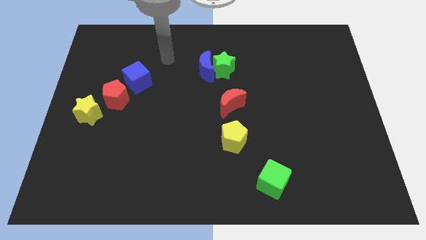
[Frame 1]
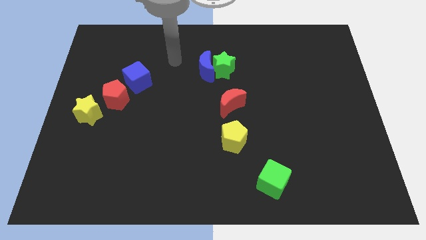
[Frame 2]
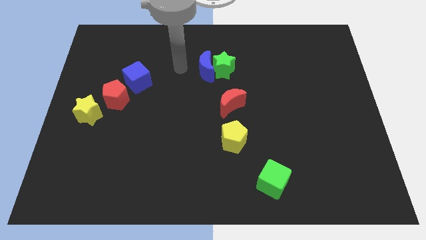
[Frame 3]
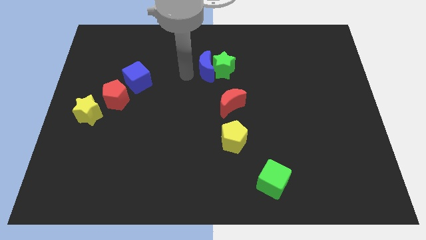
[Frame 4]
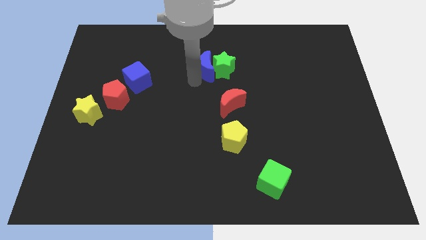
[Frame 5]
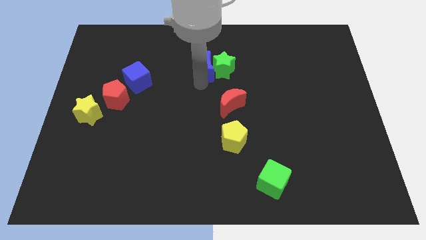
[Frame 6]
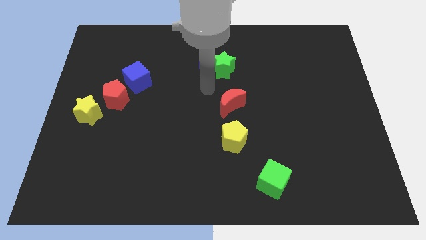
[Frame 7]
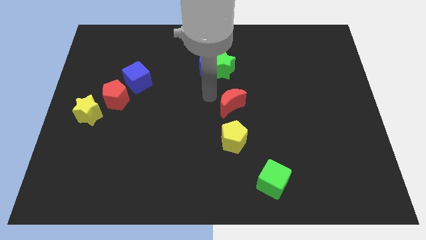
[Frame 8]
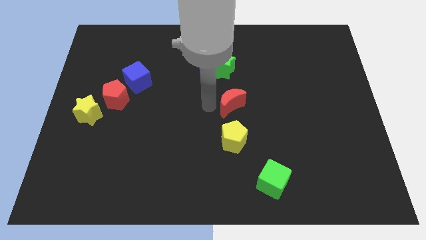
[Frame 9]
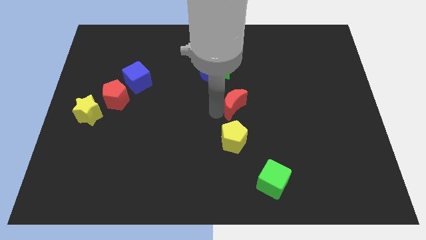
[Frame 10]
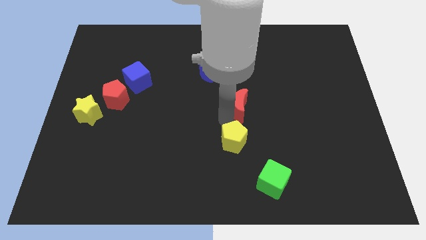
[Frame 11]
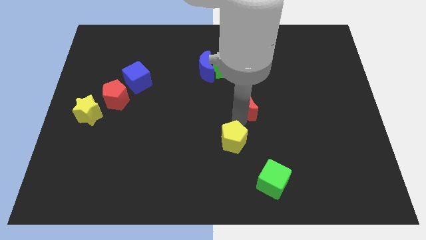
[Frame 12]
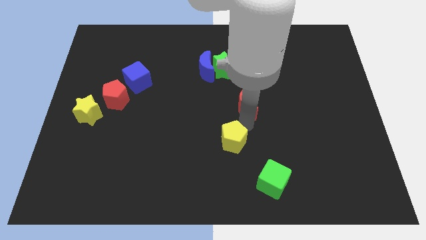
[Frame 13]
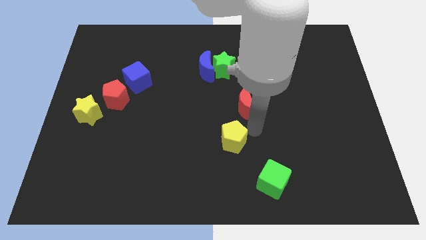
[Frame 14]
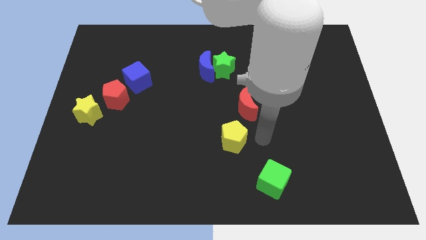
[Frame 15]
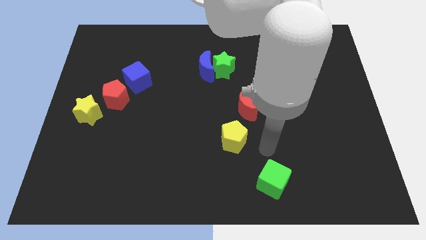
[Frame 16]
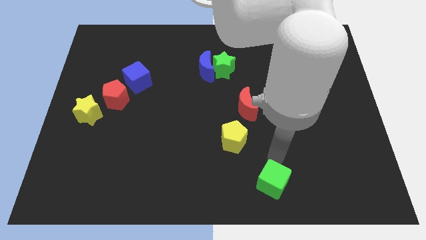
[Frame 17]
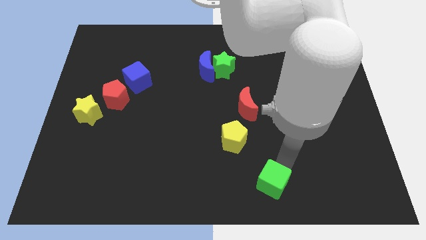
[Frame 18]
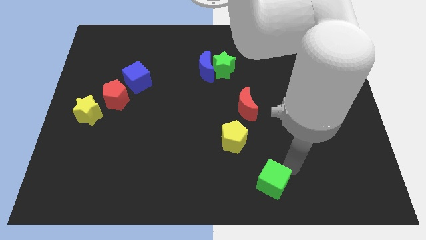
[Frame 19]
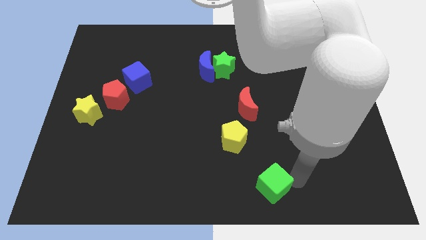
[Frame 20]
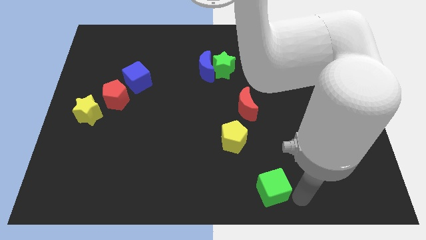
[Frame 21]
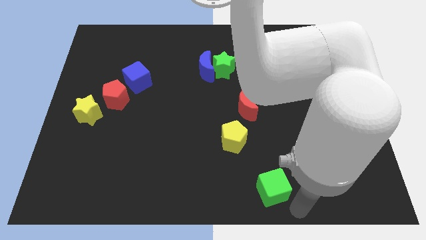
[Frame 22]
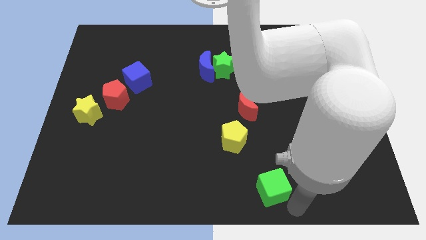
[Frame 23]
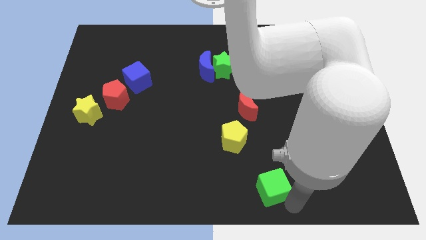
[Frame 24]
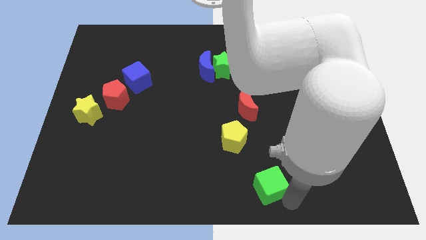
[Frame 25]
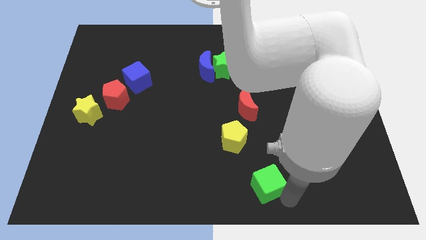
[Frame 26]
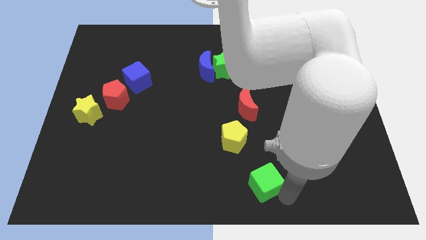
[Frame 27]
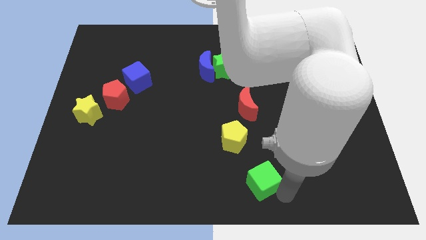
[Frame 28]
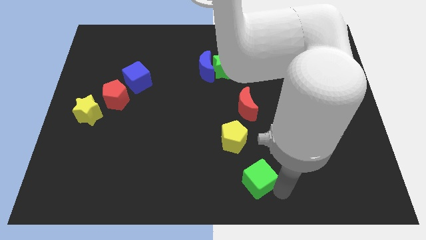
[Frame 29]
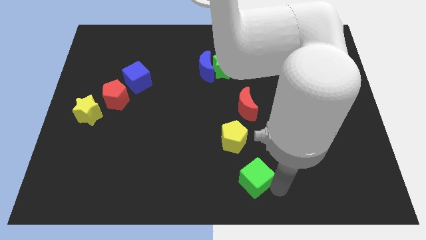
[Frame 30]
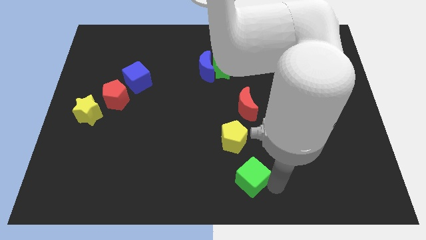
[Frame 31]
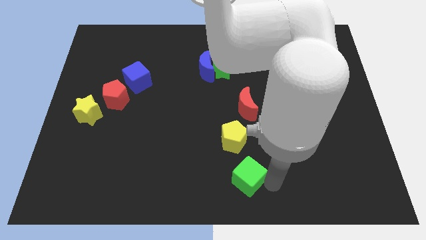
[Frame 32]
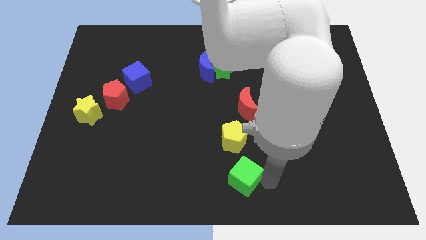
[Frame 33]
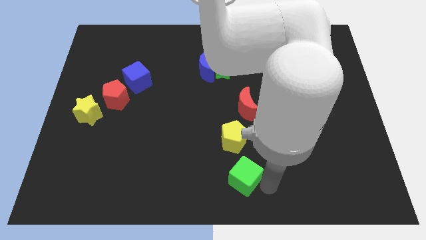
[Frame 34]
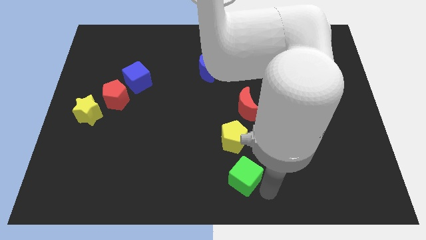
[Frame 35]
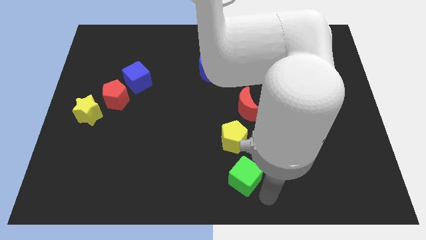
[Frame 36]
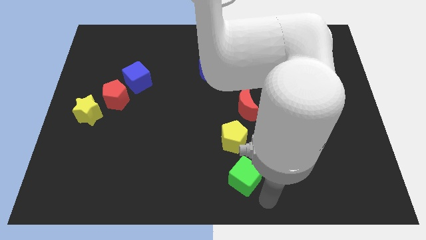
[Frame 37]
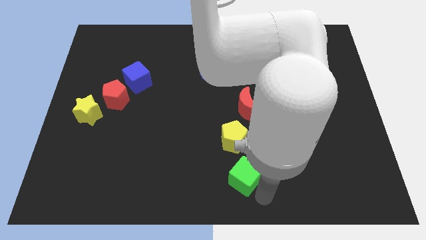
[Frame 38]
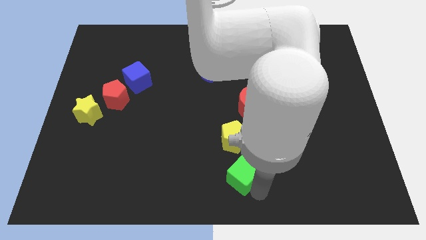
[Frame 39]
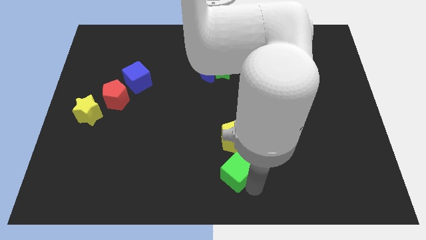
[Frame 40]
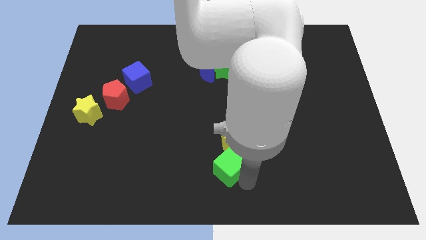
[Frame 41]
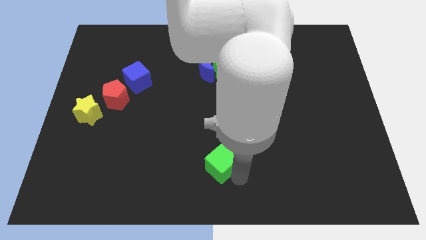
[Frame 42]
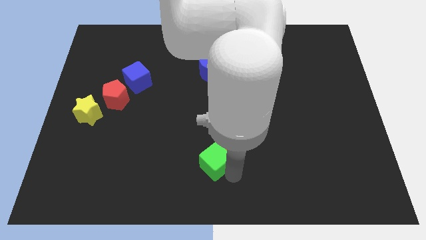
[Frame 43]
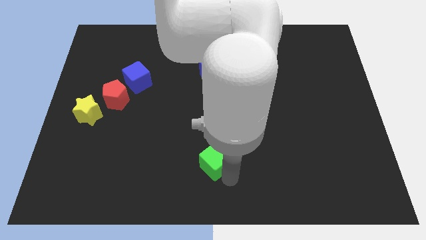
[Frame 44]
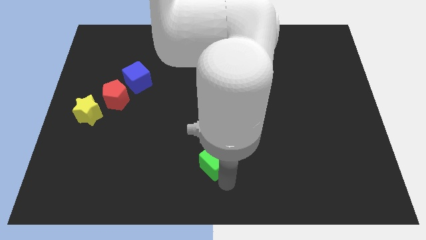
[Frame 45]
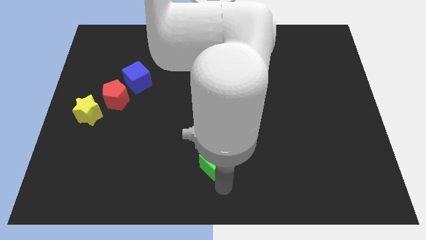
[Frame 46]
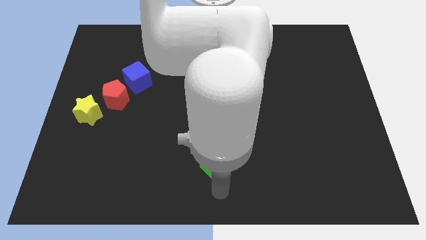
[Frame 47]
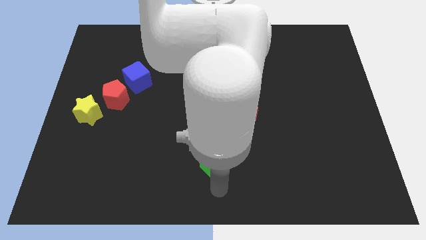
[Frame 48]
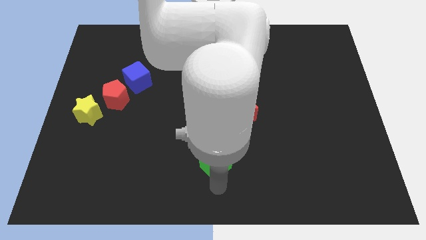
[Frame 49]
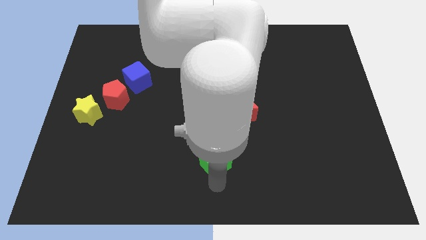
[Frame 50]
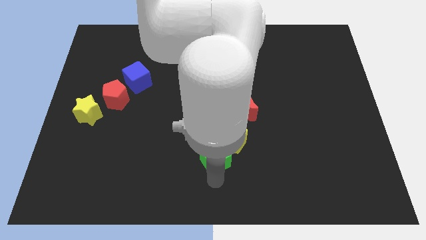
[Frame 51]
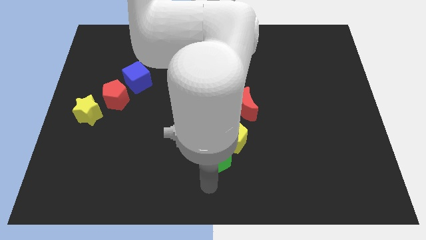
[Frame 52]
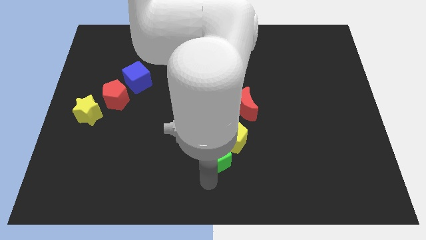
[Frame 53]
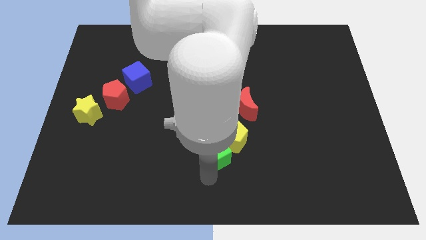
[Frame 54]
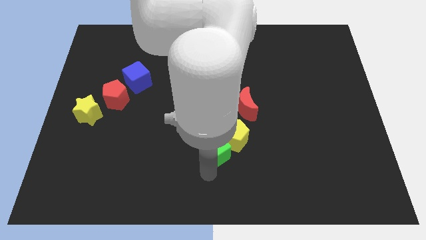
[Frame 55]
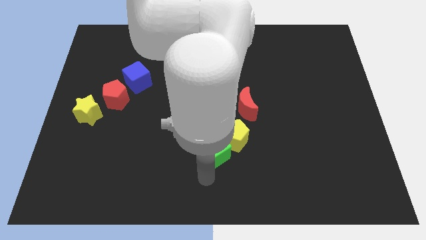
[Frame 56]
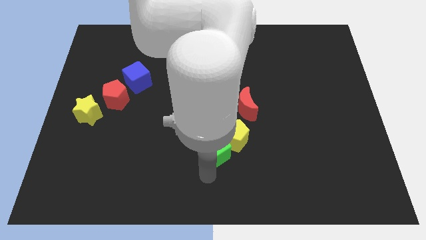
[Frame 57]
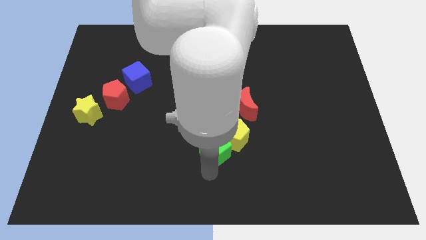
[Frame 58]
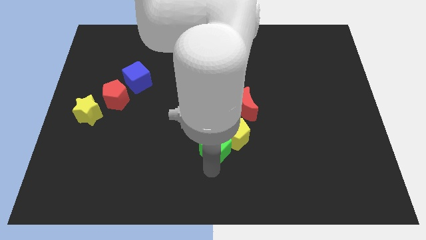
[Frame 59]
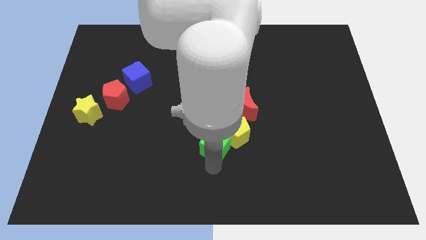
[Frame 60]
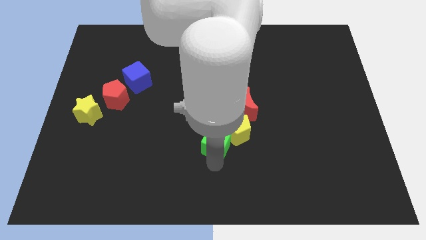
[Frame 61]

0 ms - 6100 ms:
push the green cube to the bottom left side of the red moon

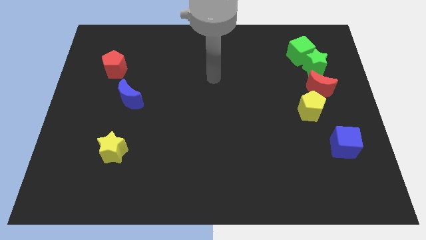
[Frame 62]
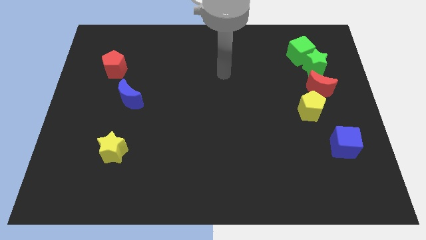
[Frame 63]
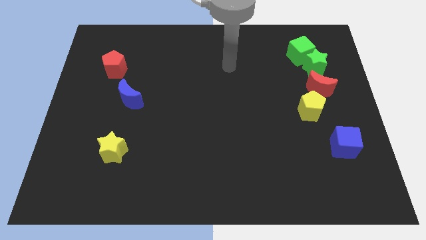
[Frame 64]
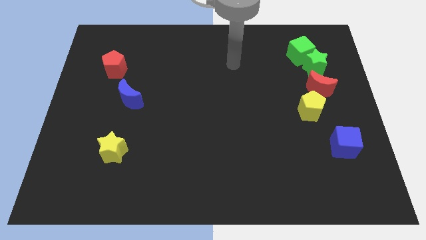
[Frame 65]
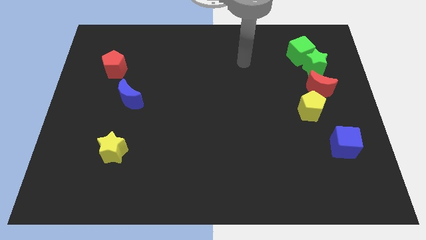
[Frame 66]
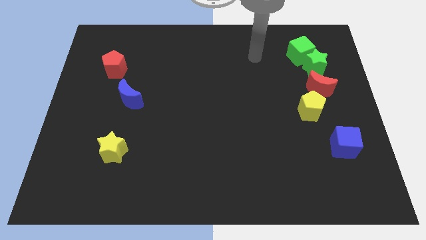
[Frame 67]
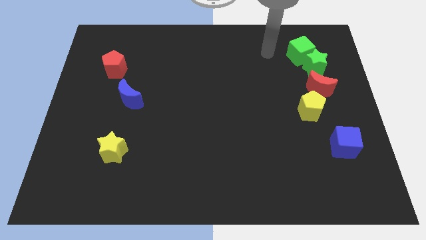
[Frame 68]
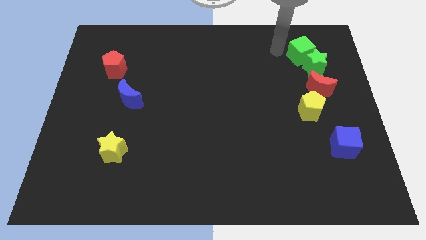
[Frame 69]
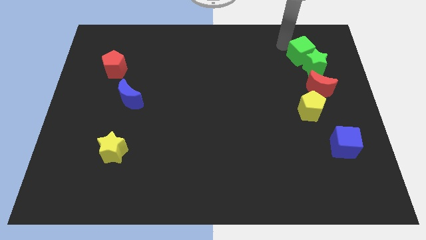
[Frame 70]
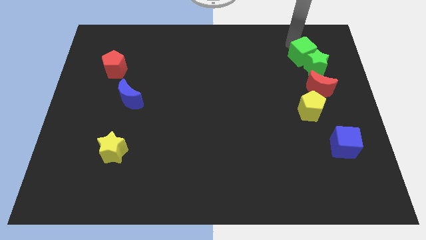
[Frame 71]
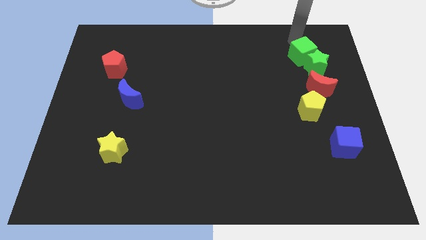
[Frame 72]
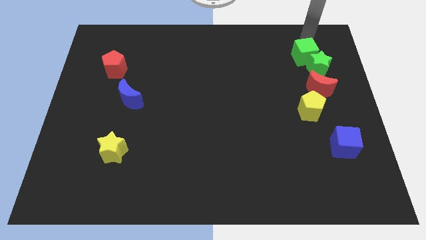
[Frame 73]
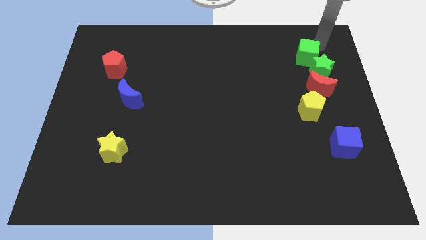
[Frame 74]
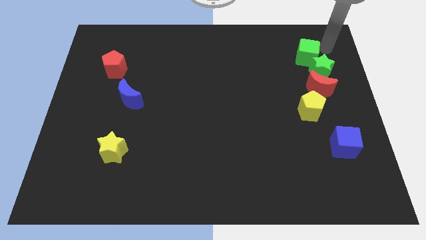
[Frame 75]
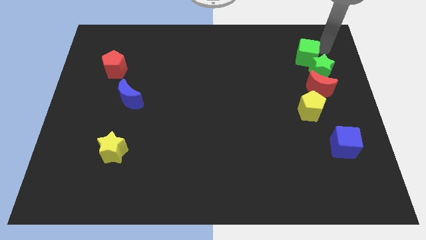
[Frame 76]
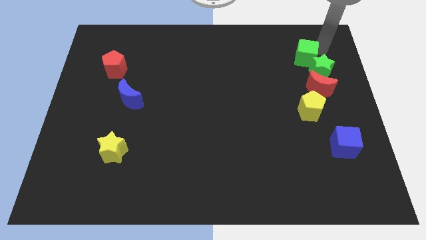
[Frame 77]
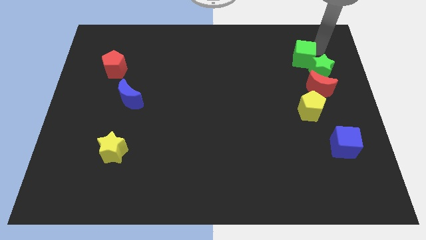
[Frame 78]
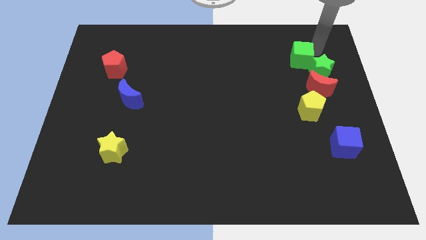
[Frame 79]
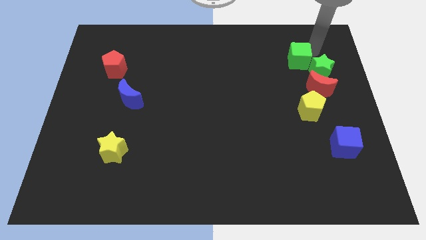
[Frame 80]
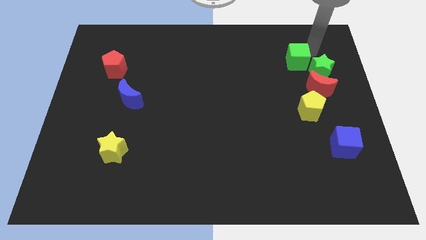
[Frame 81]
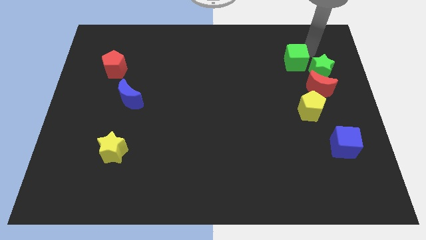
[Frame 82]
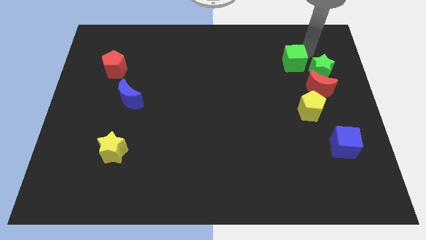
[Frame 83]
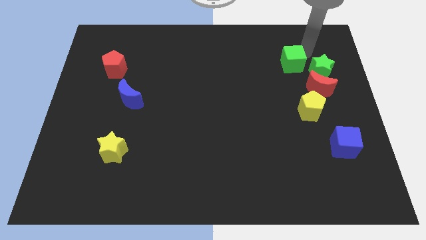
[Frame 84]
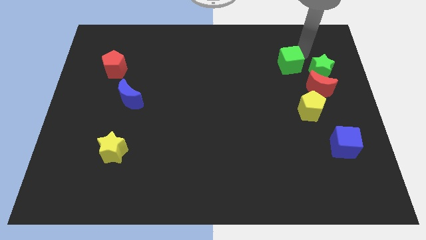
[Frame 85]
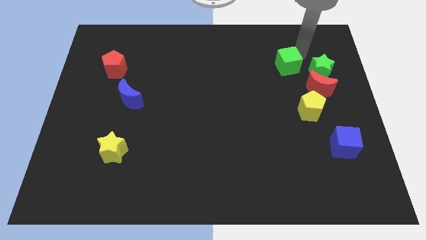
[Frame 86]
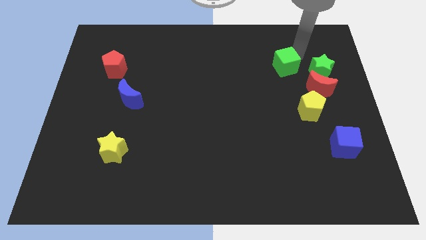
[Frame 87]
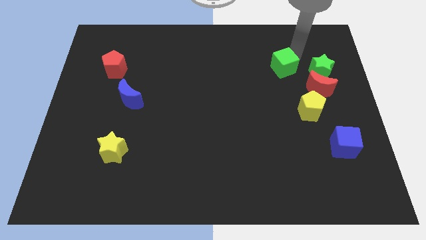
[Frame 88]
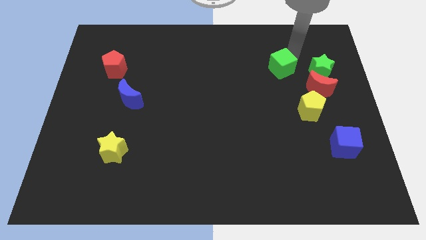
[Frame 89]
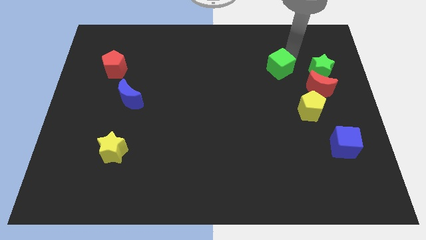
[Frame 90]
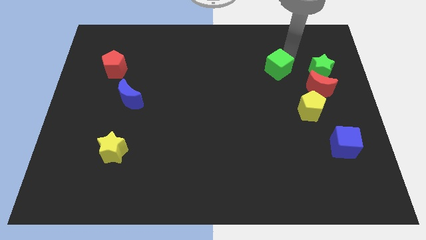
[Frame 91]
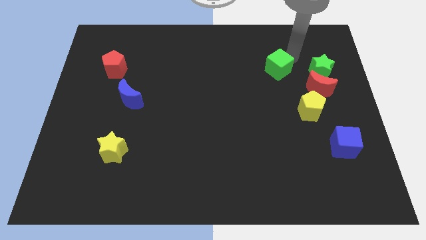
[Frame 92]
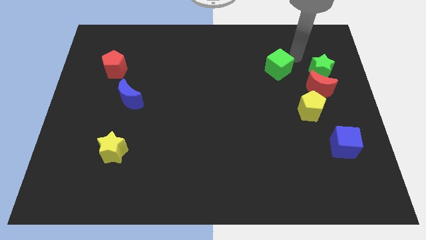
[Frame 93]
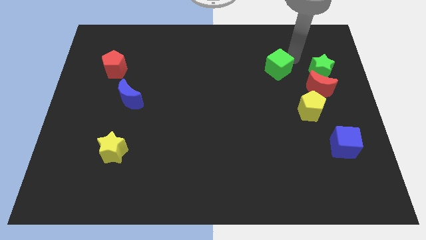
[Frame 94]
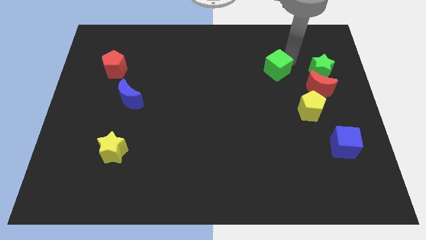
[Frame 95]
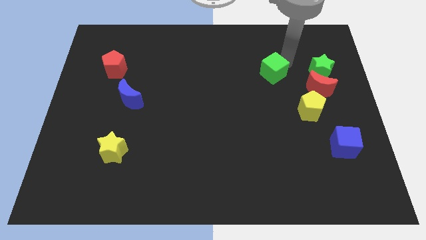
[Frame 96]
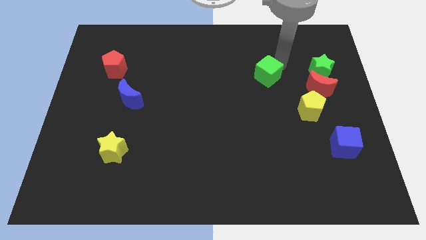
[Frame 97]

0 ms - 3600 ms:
move the green cube to the left of the red moon
